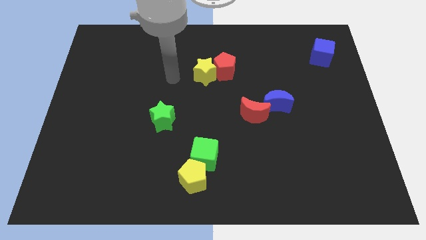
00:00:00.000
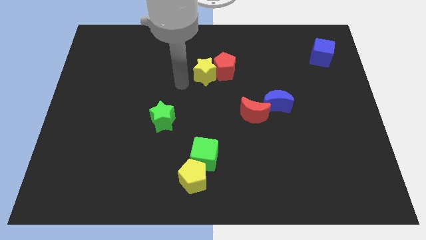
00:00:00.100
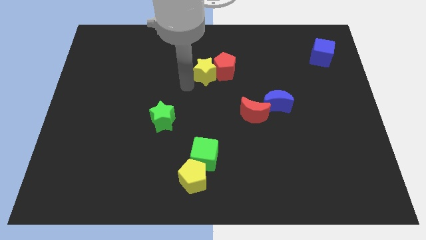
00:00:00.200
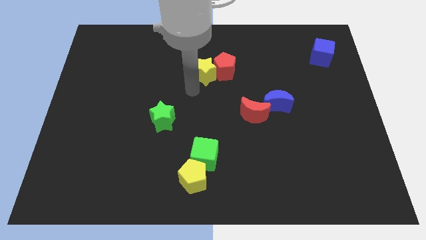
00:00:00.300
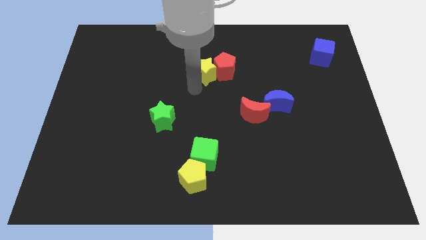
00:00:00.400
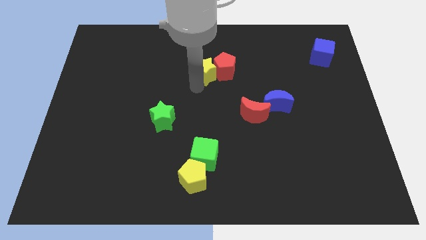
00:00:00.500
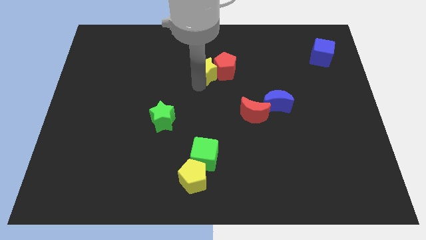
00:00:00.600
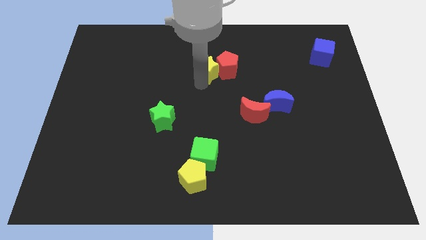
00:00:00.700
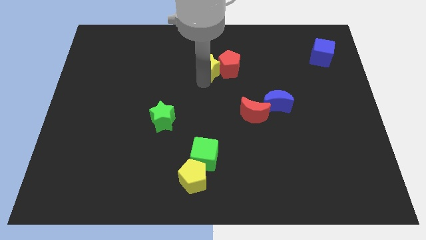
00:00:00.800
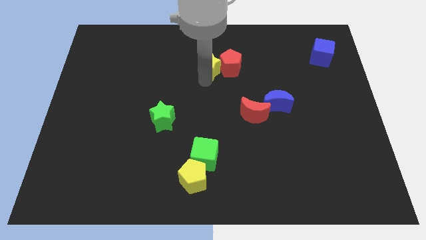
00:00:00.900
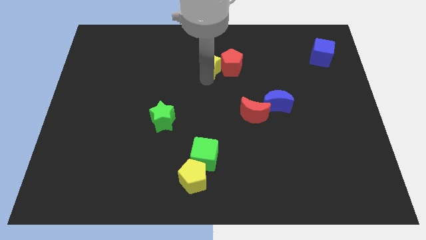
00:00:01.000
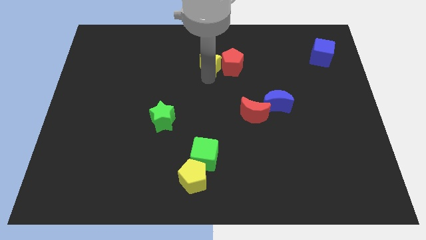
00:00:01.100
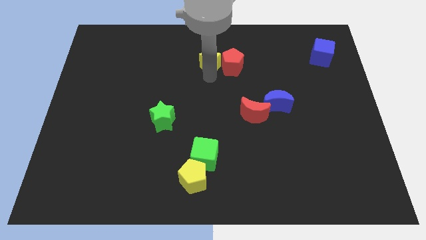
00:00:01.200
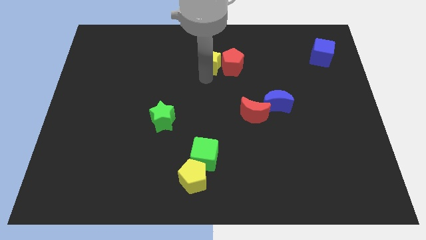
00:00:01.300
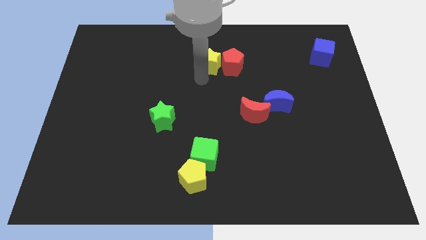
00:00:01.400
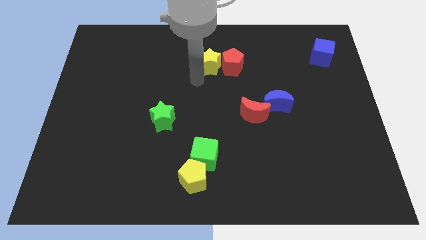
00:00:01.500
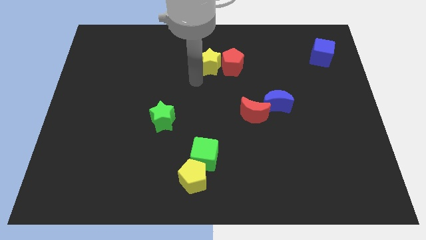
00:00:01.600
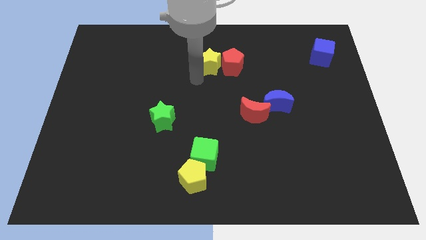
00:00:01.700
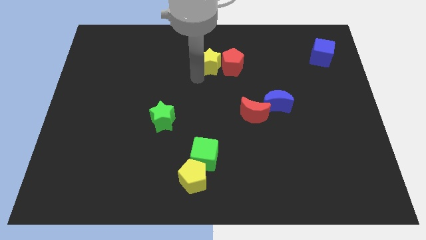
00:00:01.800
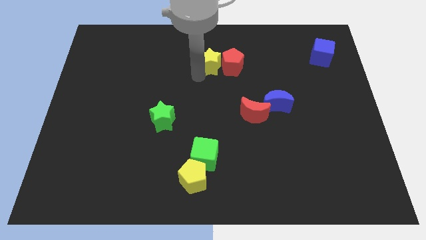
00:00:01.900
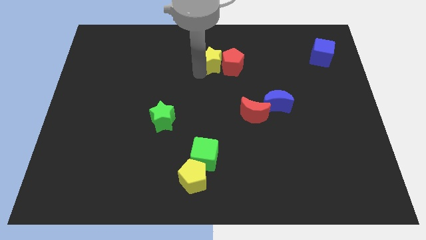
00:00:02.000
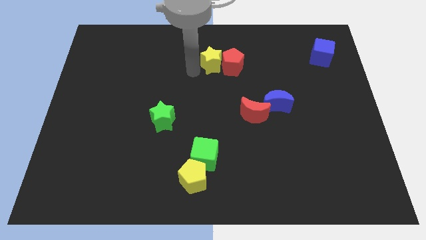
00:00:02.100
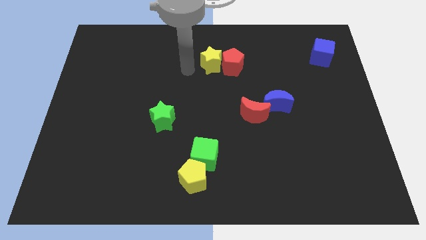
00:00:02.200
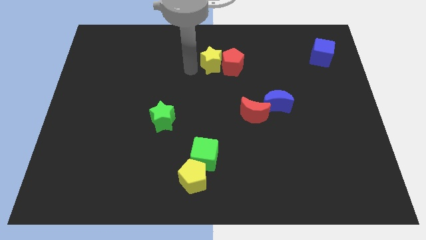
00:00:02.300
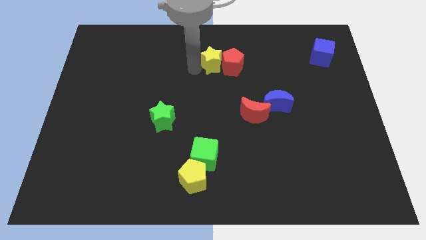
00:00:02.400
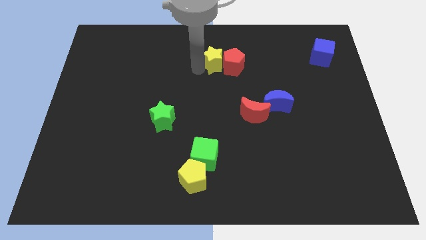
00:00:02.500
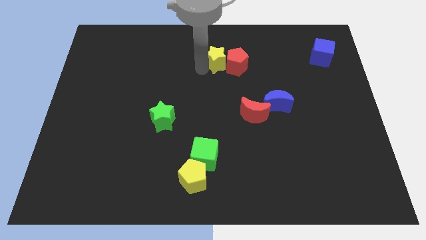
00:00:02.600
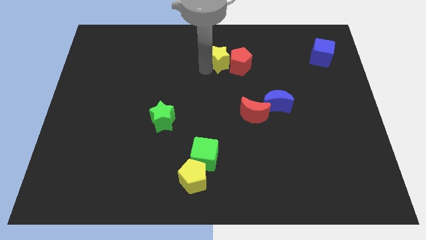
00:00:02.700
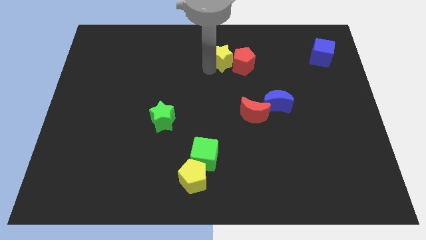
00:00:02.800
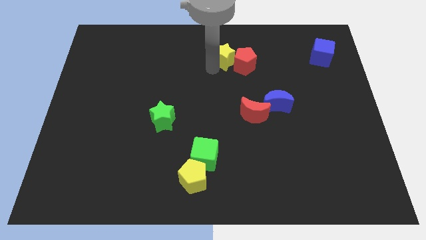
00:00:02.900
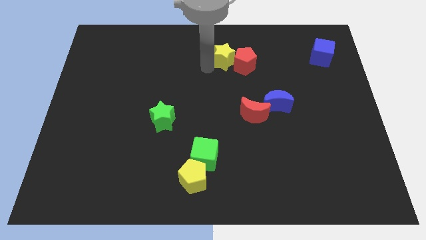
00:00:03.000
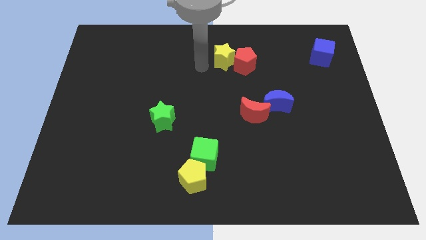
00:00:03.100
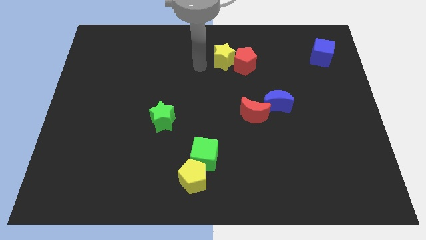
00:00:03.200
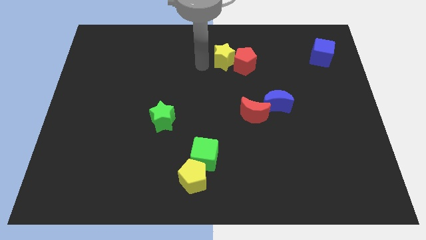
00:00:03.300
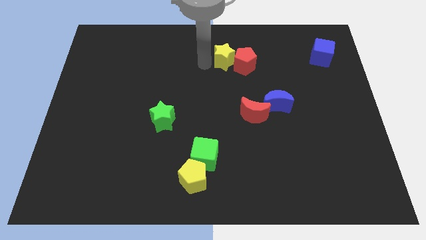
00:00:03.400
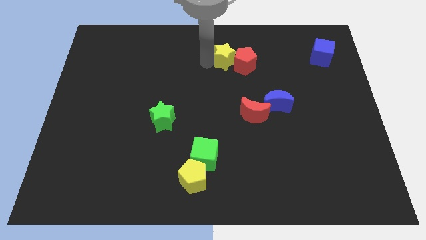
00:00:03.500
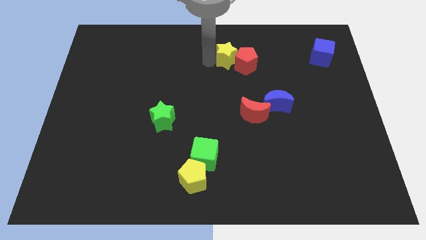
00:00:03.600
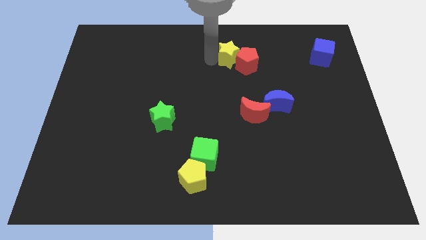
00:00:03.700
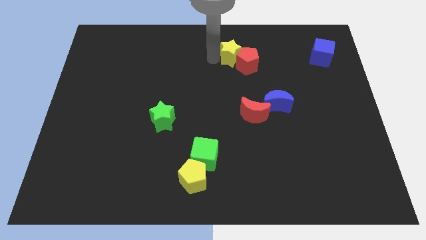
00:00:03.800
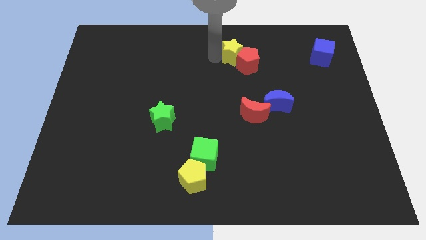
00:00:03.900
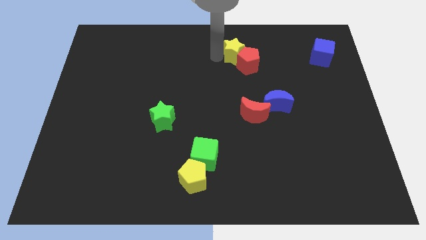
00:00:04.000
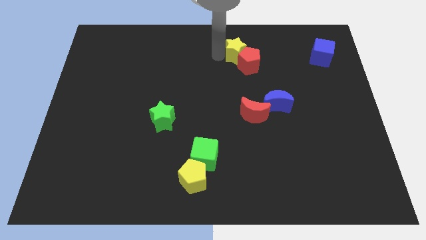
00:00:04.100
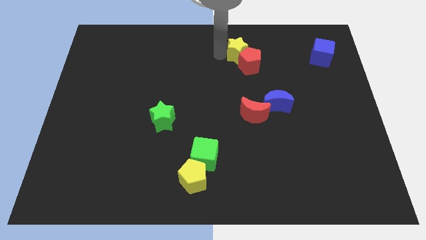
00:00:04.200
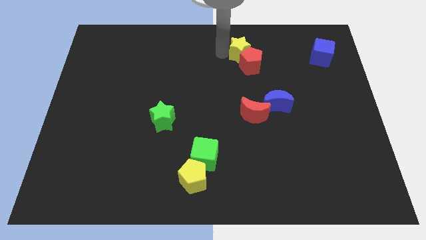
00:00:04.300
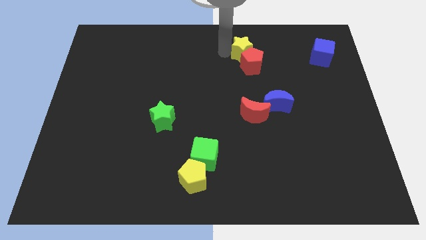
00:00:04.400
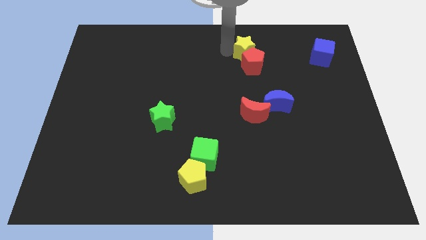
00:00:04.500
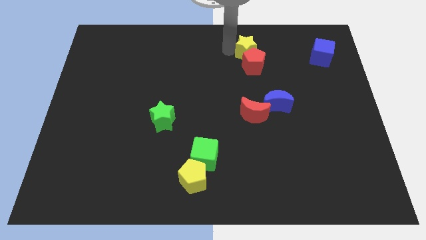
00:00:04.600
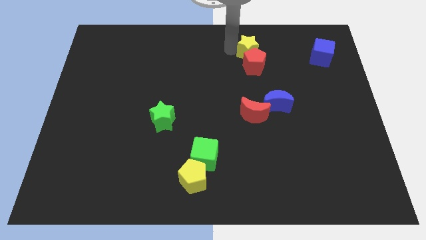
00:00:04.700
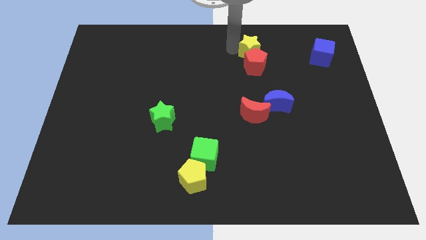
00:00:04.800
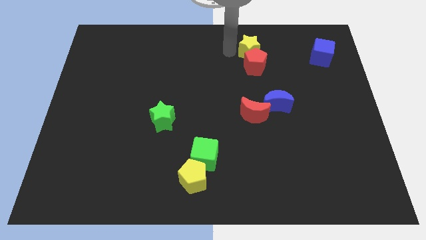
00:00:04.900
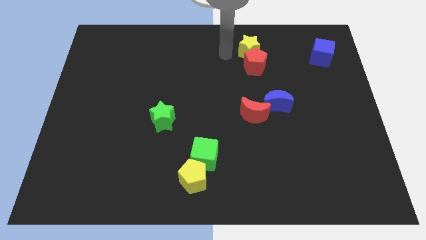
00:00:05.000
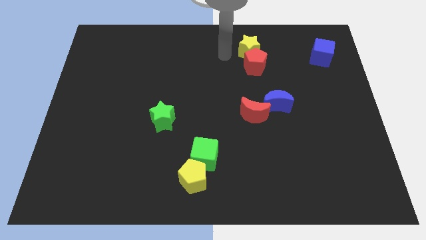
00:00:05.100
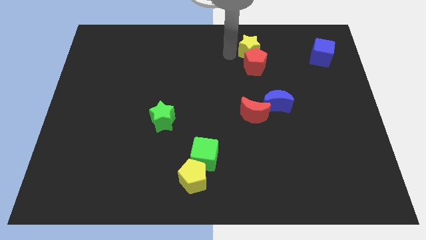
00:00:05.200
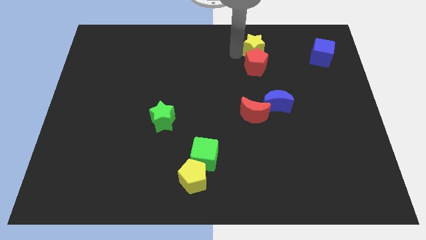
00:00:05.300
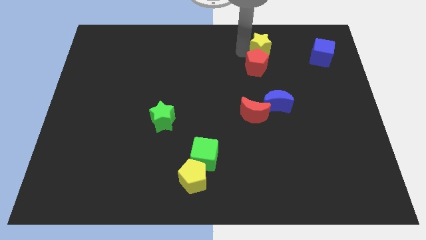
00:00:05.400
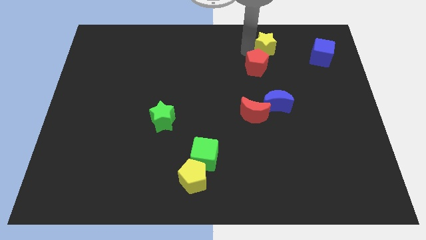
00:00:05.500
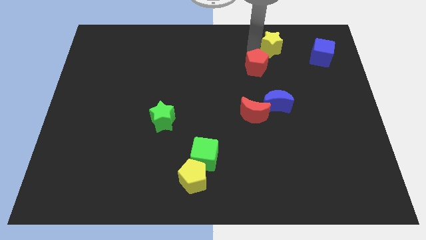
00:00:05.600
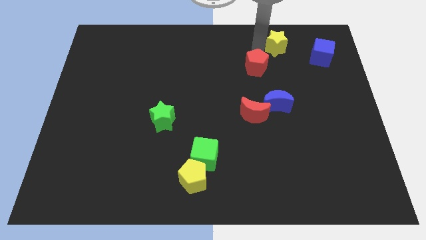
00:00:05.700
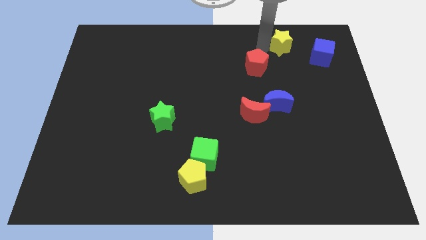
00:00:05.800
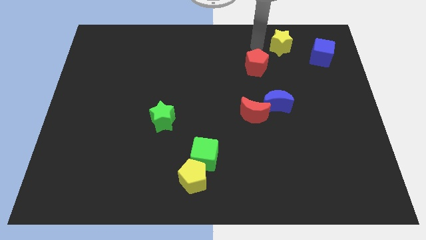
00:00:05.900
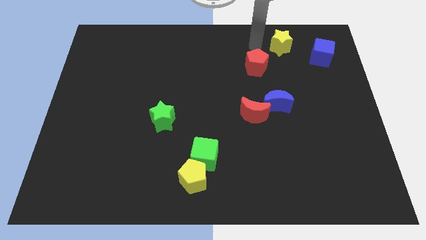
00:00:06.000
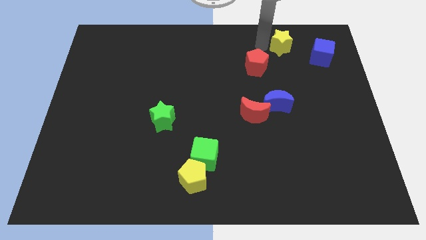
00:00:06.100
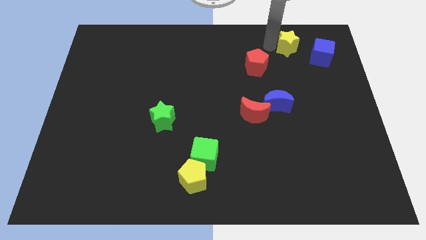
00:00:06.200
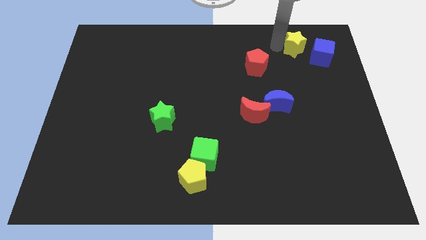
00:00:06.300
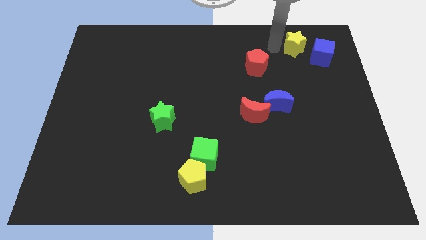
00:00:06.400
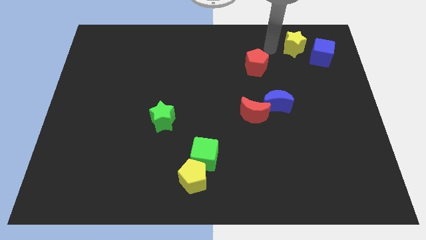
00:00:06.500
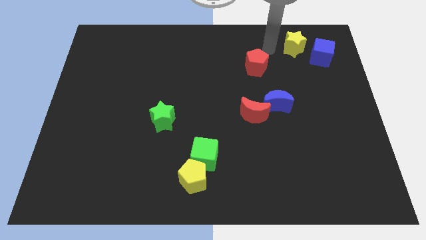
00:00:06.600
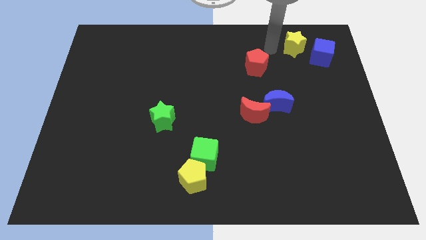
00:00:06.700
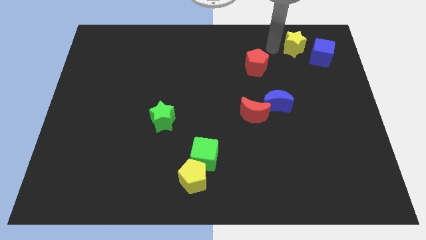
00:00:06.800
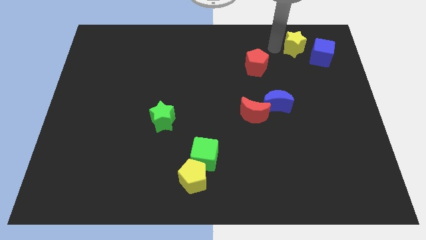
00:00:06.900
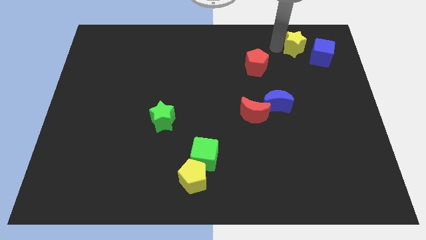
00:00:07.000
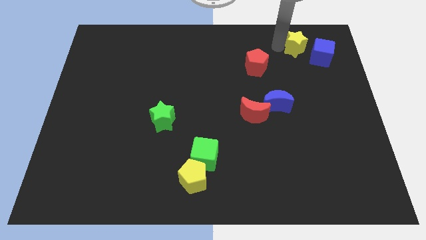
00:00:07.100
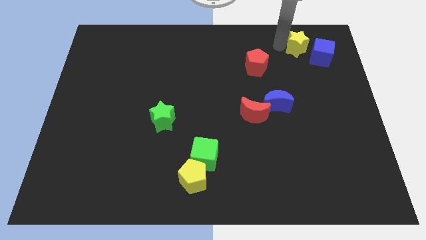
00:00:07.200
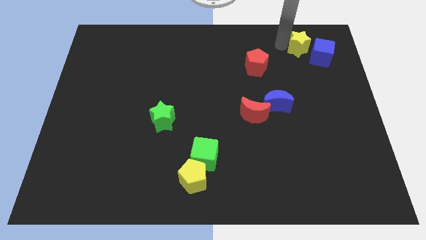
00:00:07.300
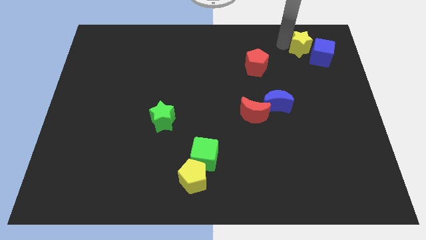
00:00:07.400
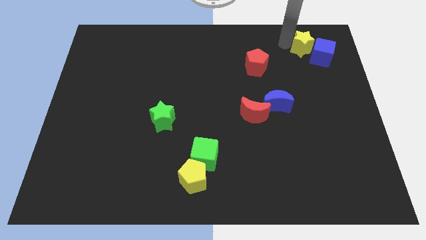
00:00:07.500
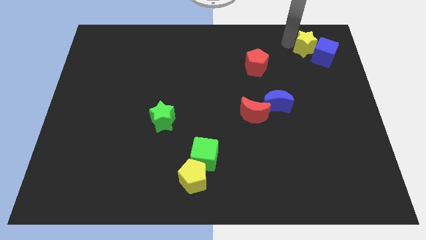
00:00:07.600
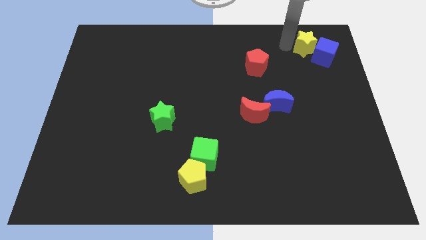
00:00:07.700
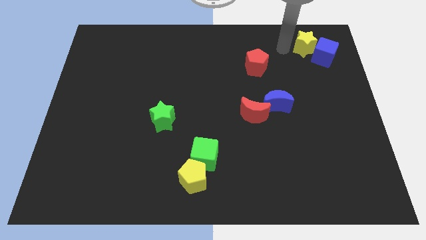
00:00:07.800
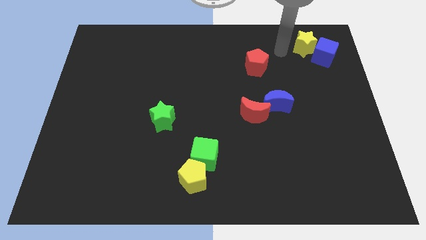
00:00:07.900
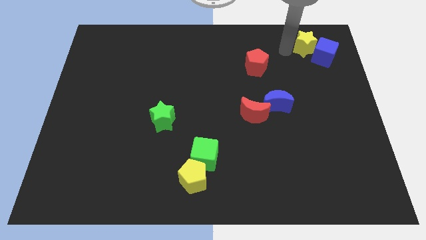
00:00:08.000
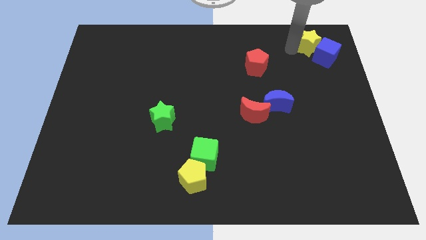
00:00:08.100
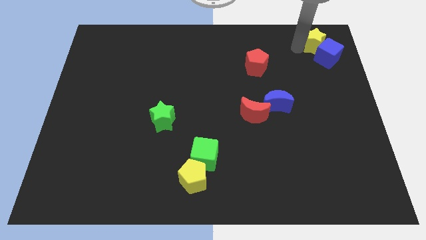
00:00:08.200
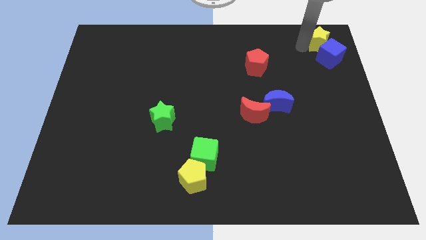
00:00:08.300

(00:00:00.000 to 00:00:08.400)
push the yellow star to the top right corner
